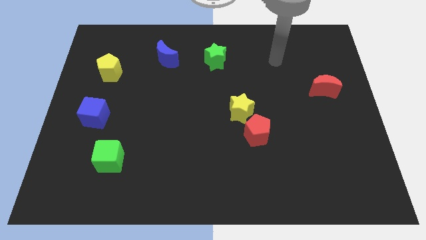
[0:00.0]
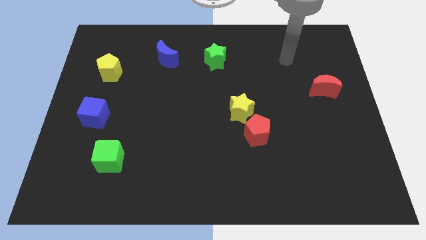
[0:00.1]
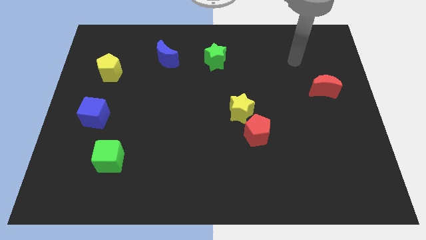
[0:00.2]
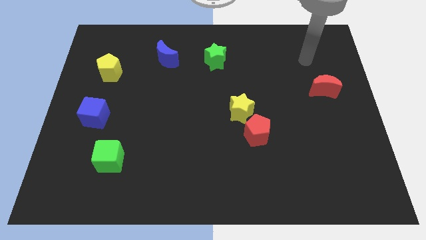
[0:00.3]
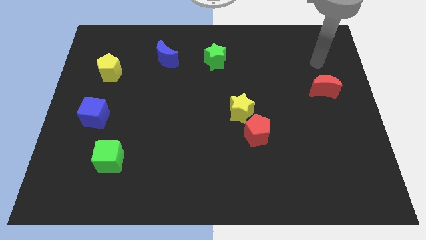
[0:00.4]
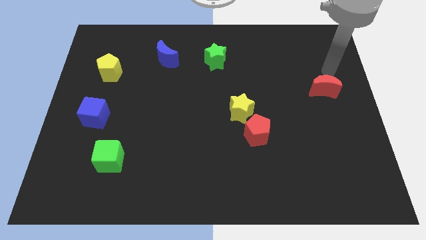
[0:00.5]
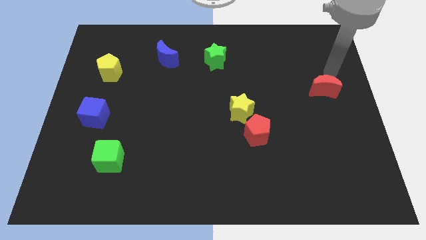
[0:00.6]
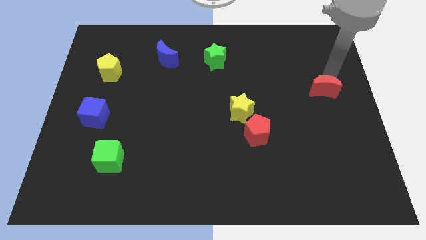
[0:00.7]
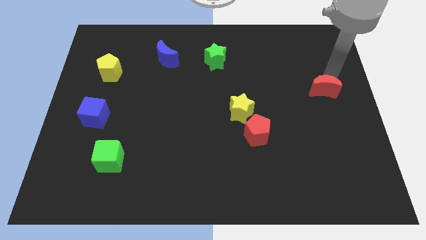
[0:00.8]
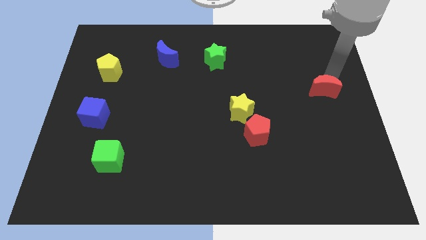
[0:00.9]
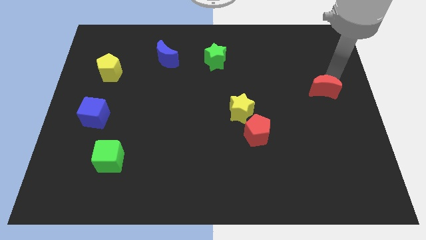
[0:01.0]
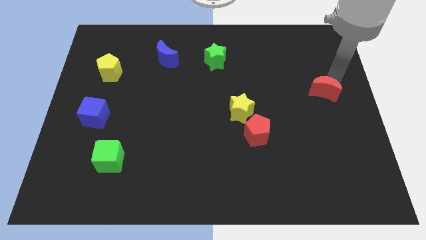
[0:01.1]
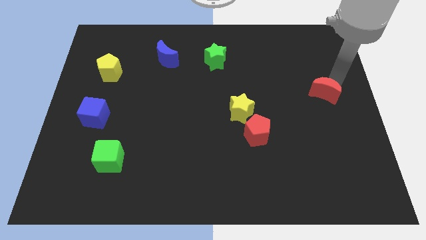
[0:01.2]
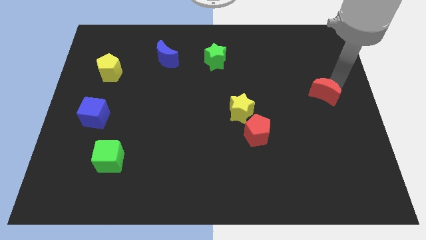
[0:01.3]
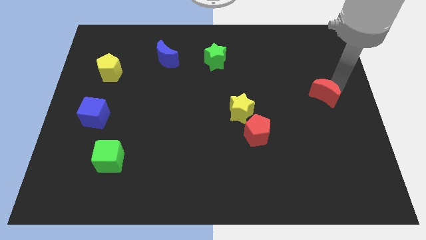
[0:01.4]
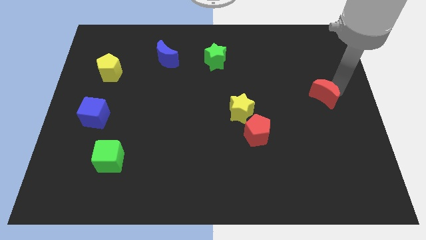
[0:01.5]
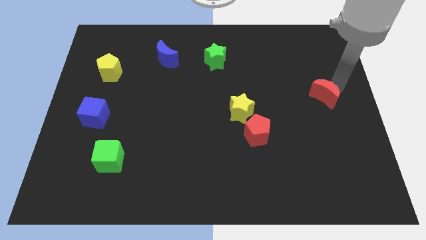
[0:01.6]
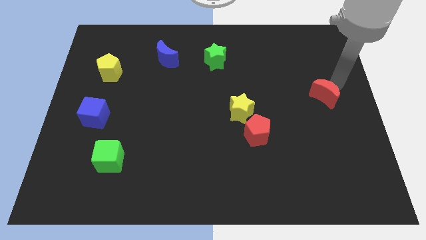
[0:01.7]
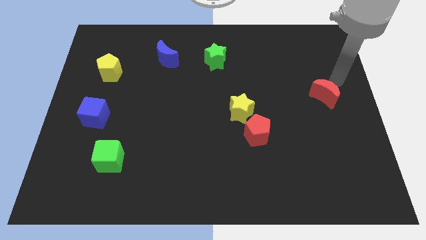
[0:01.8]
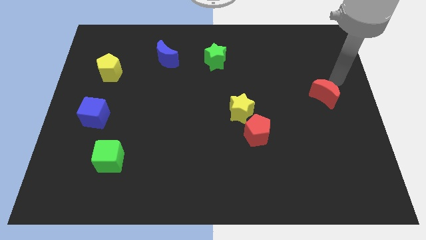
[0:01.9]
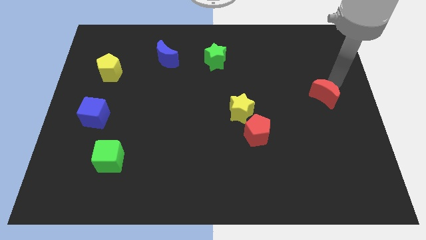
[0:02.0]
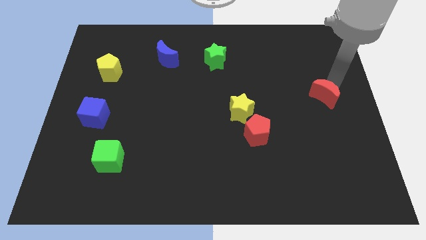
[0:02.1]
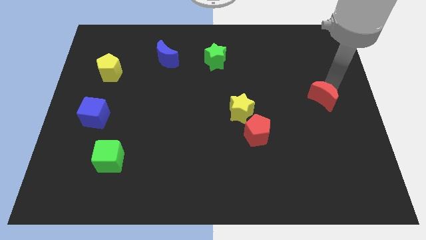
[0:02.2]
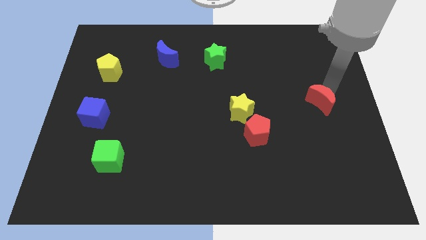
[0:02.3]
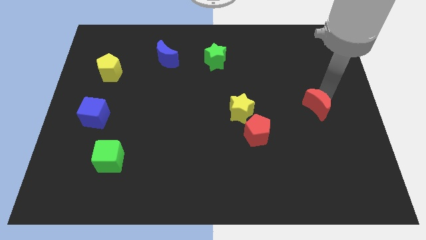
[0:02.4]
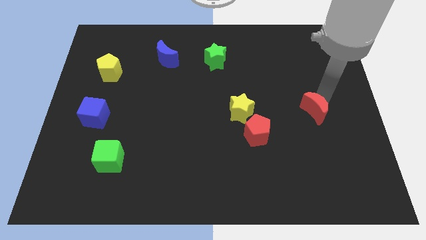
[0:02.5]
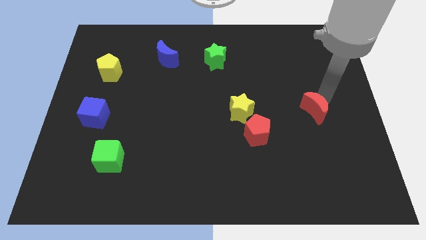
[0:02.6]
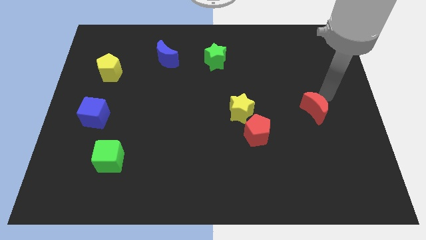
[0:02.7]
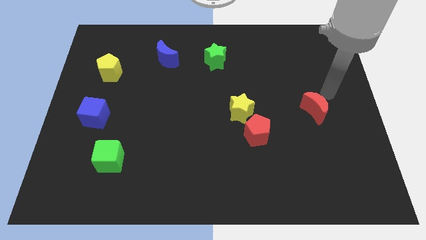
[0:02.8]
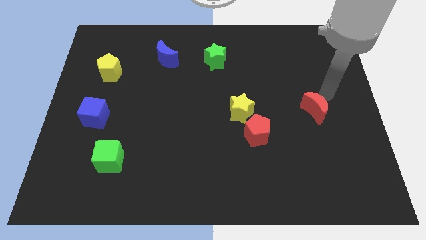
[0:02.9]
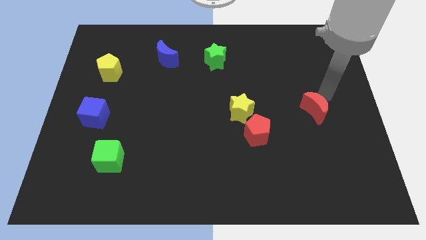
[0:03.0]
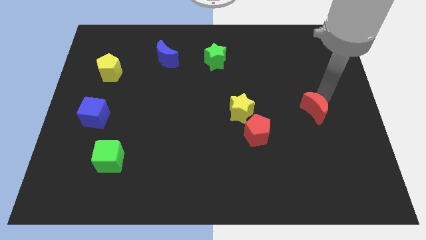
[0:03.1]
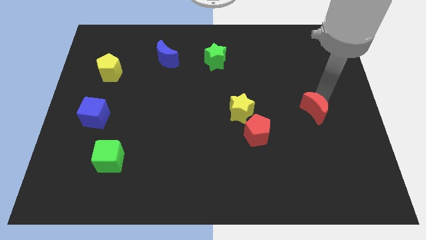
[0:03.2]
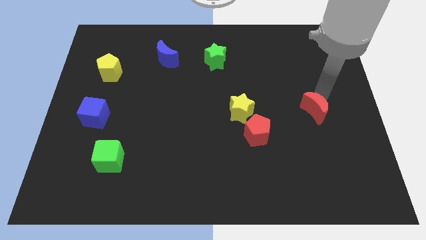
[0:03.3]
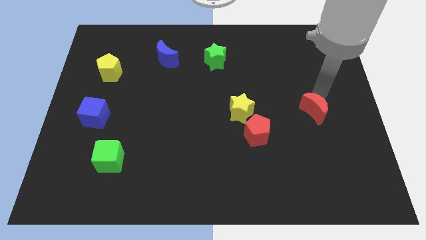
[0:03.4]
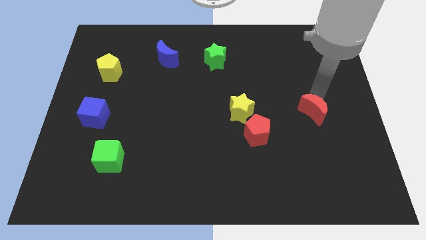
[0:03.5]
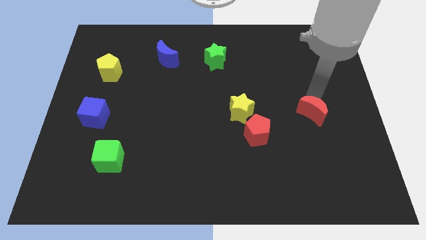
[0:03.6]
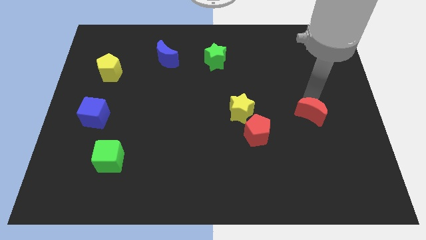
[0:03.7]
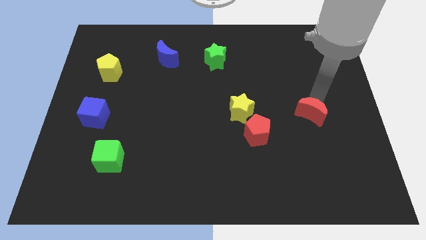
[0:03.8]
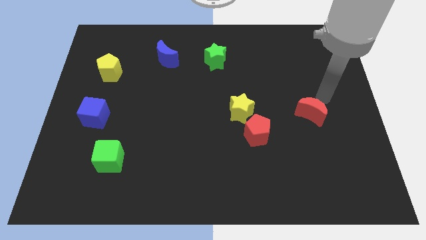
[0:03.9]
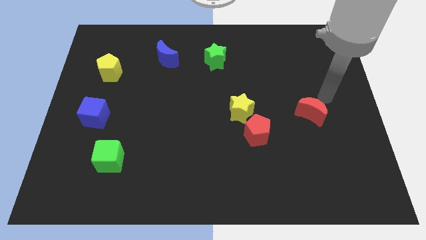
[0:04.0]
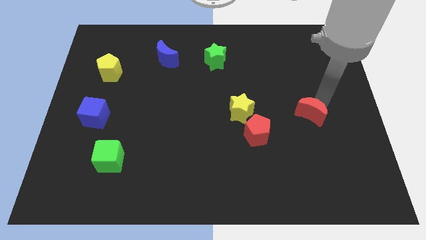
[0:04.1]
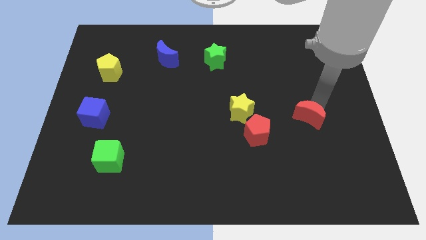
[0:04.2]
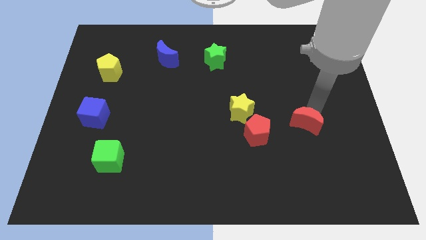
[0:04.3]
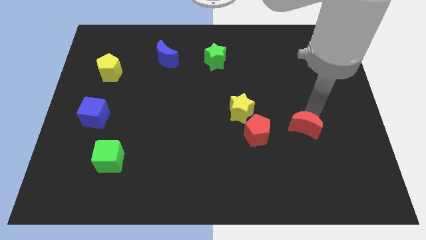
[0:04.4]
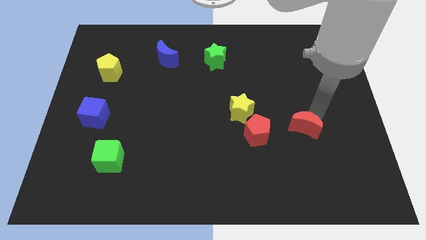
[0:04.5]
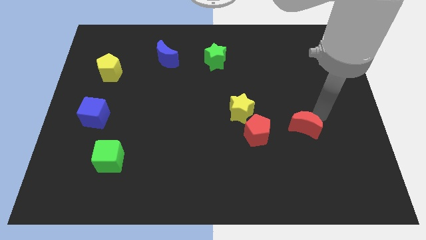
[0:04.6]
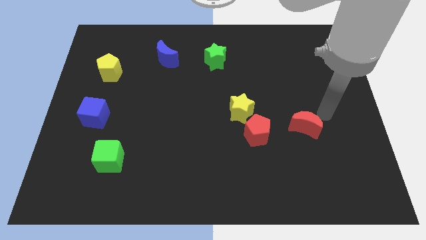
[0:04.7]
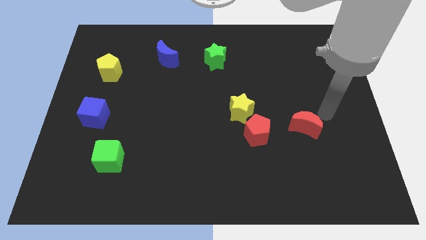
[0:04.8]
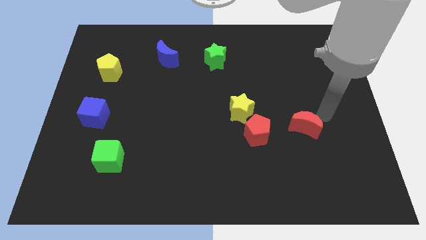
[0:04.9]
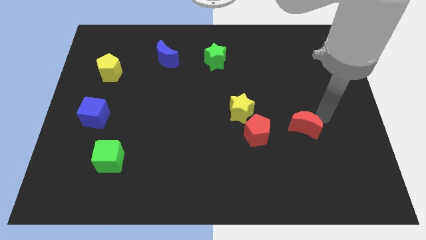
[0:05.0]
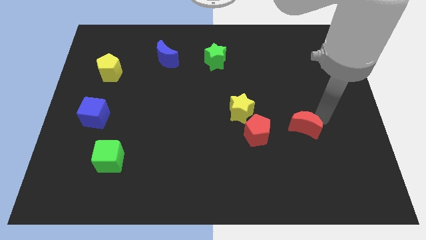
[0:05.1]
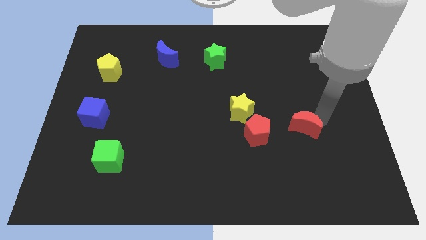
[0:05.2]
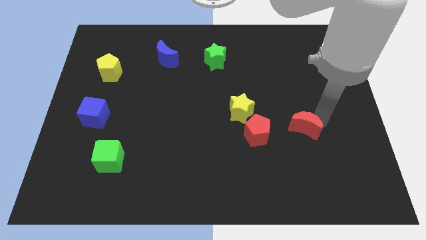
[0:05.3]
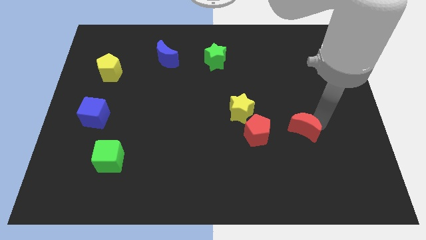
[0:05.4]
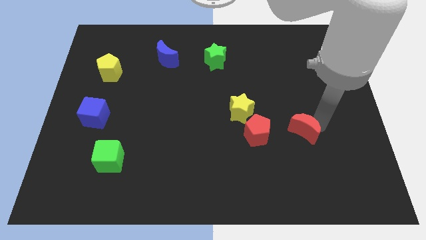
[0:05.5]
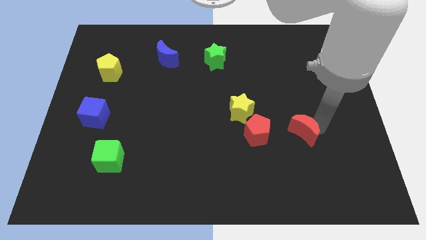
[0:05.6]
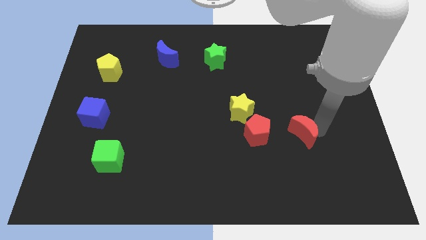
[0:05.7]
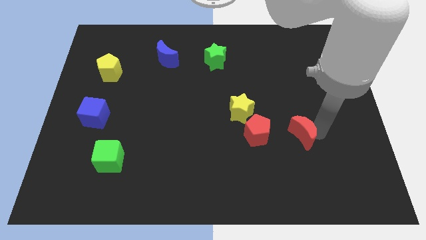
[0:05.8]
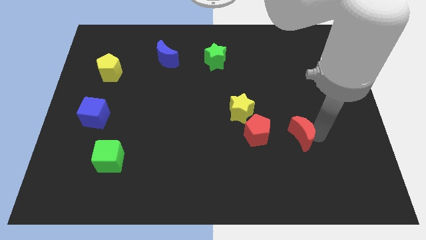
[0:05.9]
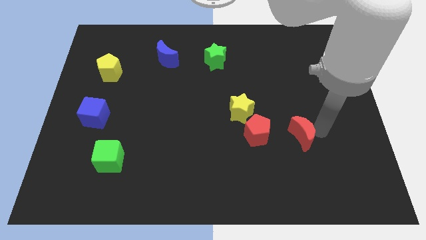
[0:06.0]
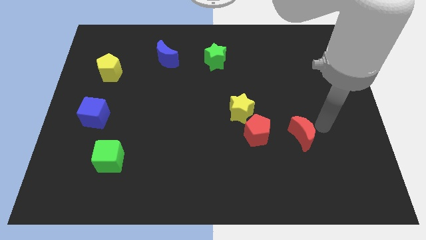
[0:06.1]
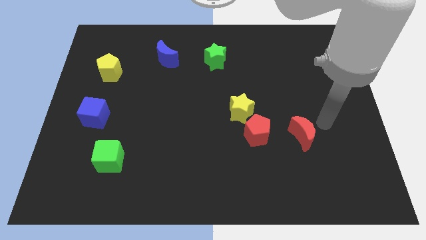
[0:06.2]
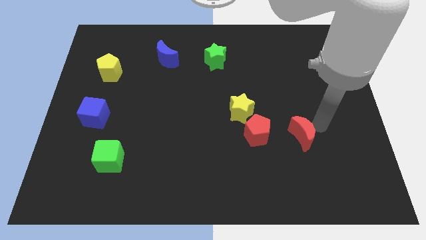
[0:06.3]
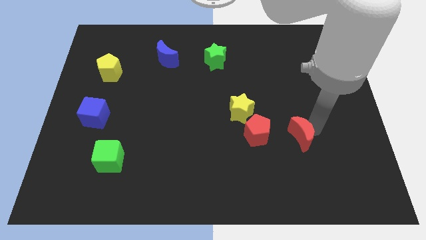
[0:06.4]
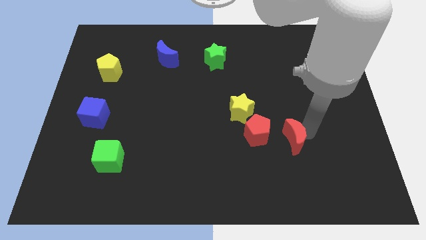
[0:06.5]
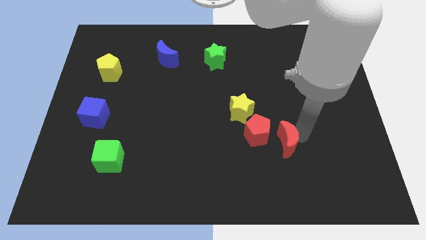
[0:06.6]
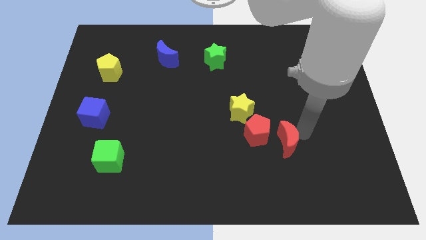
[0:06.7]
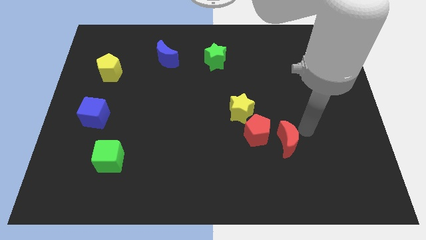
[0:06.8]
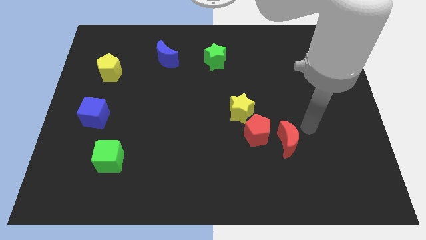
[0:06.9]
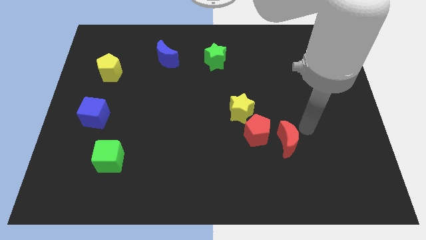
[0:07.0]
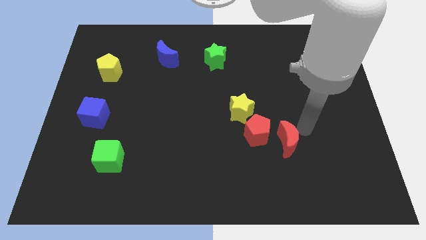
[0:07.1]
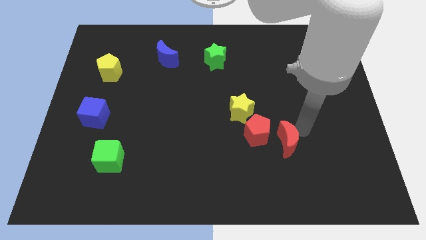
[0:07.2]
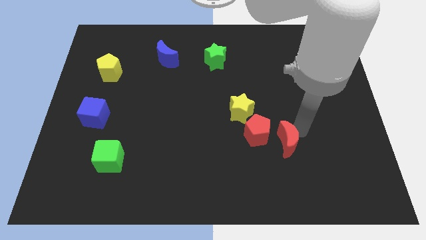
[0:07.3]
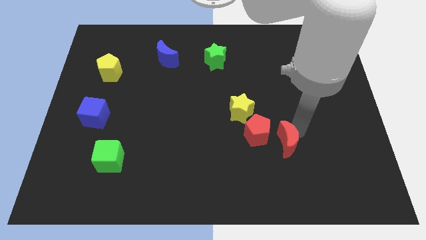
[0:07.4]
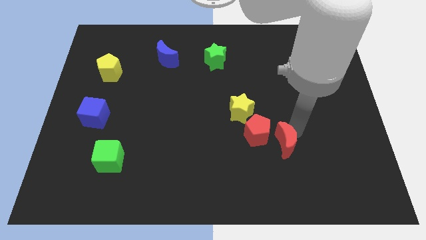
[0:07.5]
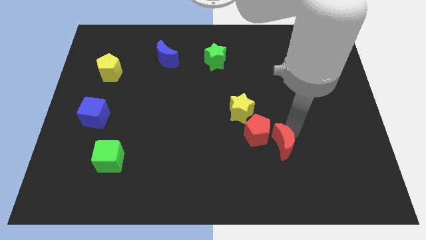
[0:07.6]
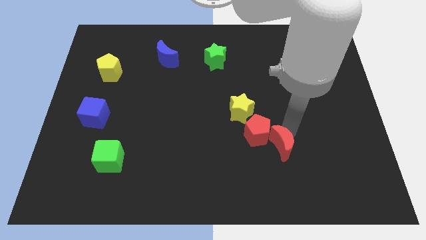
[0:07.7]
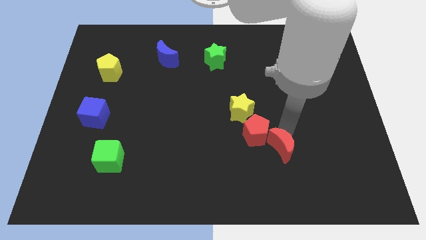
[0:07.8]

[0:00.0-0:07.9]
move the red moon downwards and then left
